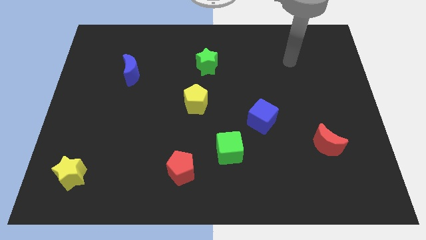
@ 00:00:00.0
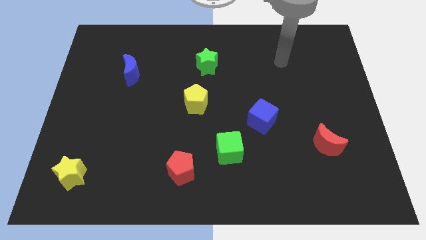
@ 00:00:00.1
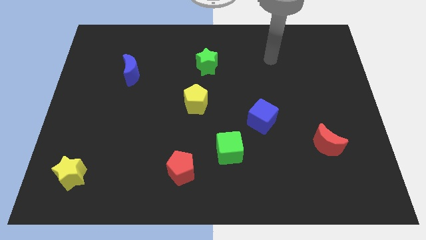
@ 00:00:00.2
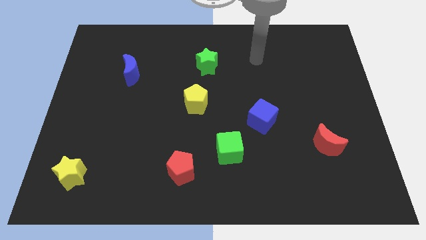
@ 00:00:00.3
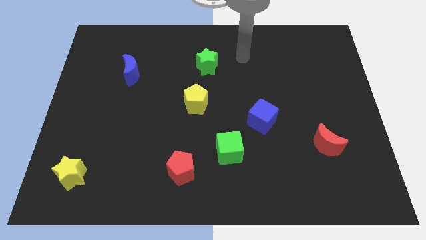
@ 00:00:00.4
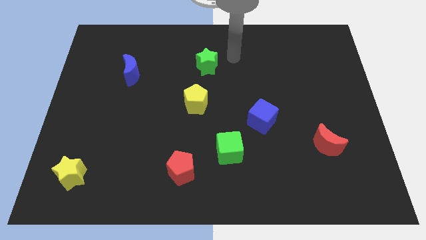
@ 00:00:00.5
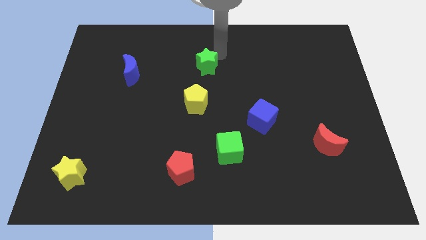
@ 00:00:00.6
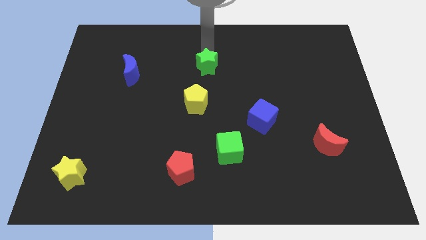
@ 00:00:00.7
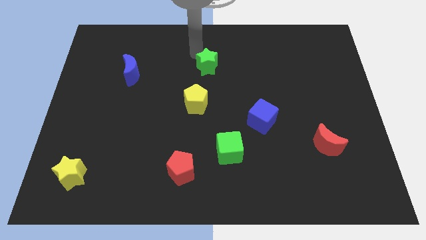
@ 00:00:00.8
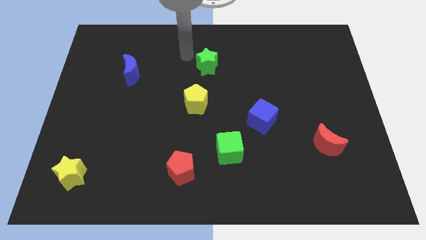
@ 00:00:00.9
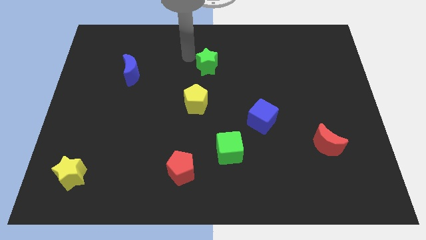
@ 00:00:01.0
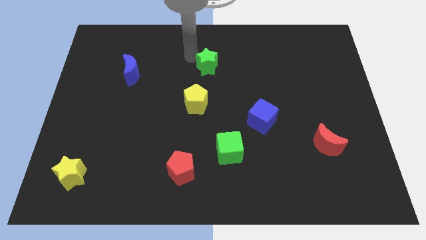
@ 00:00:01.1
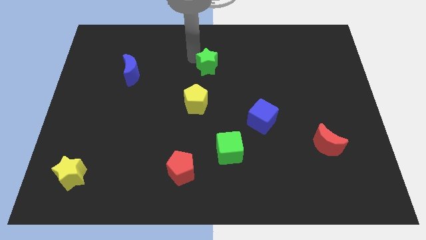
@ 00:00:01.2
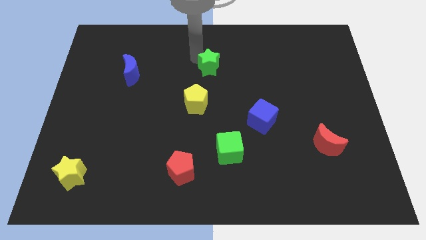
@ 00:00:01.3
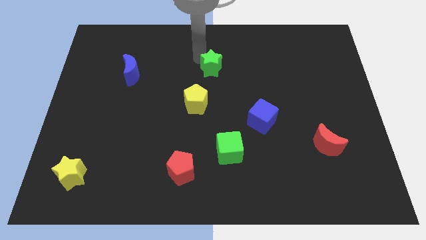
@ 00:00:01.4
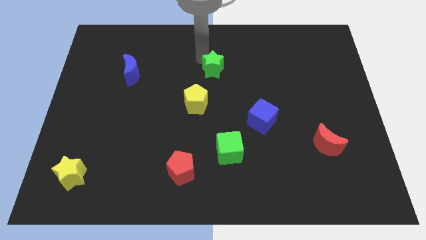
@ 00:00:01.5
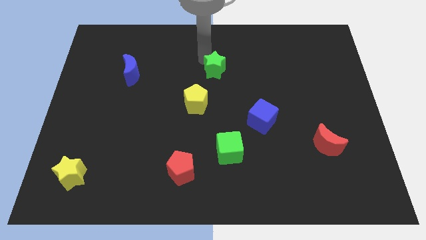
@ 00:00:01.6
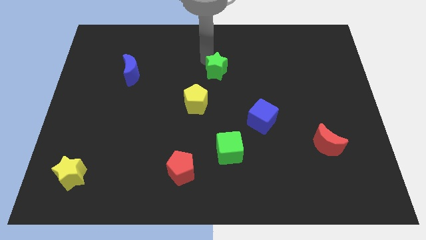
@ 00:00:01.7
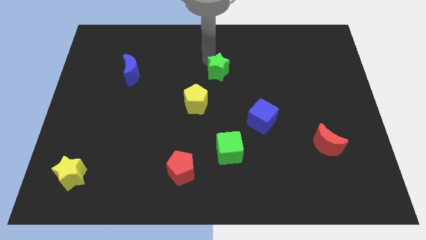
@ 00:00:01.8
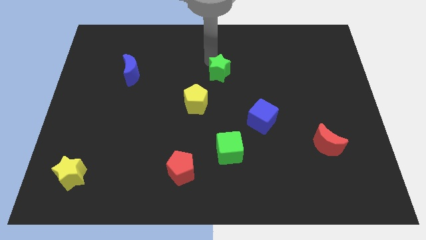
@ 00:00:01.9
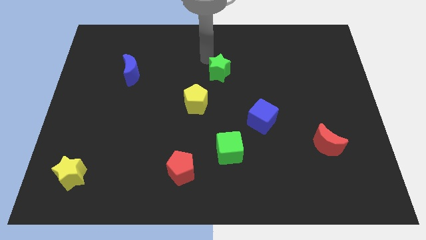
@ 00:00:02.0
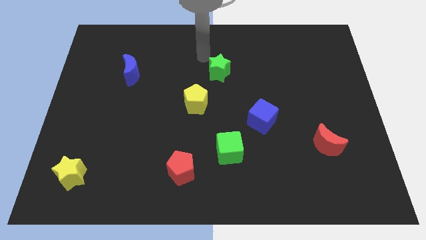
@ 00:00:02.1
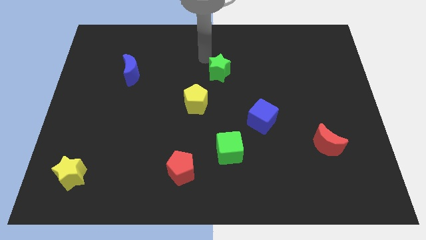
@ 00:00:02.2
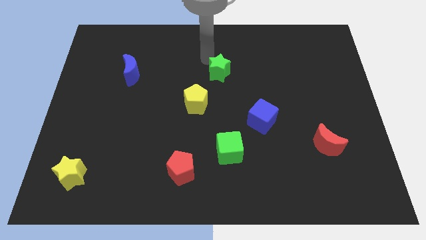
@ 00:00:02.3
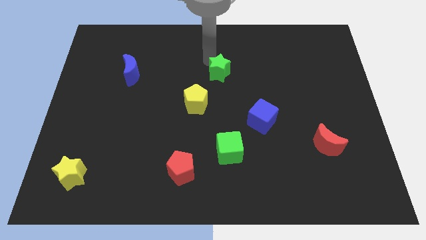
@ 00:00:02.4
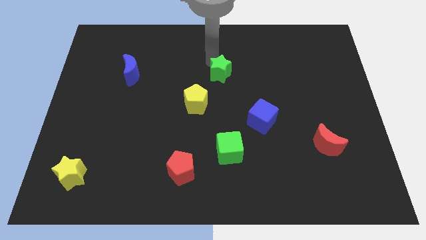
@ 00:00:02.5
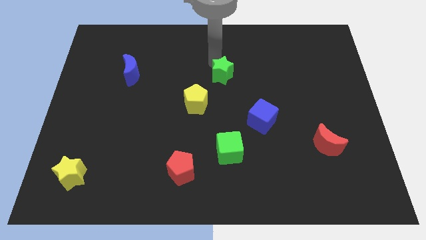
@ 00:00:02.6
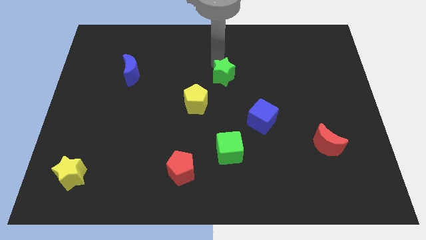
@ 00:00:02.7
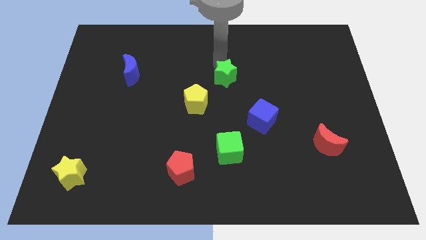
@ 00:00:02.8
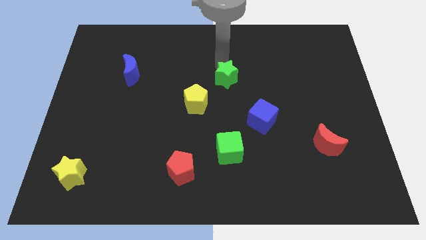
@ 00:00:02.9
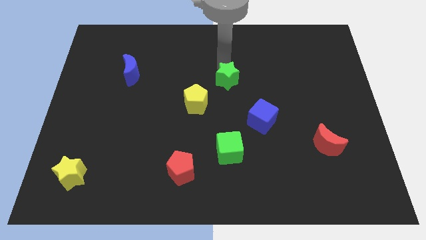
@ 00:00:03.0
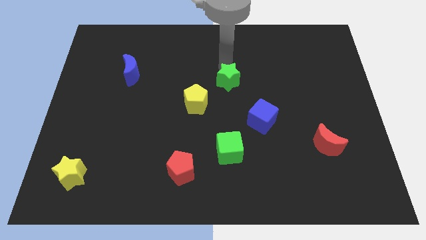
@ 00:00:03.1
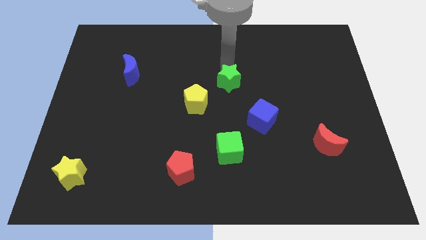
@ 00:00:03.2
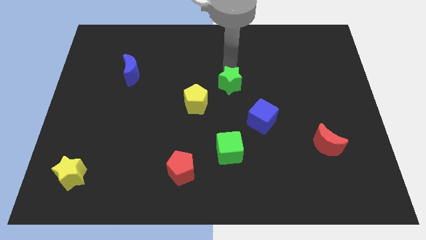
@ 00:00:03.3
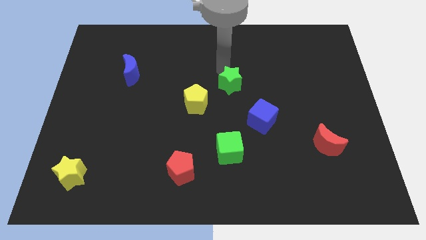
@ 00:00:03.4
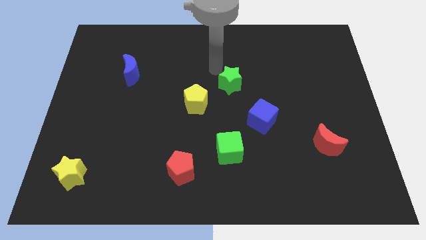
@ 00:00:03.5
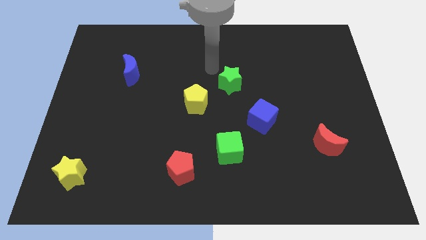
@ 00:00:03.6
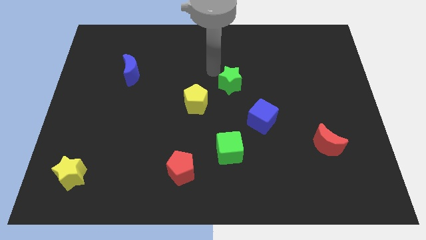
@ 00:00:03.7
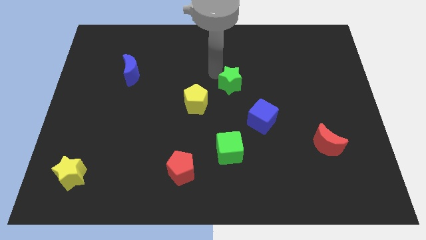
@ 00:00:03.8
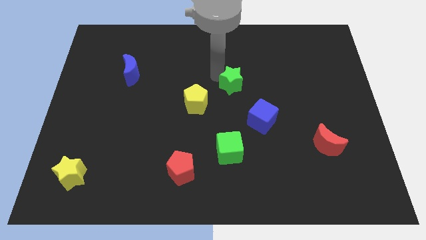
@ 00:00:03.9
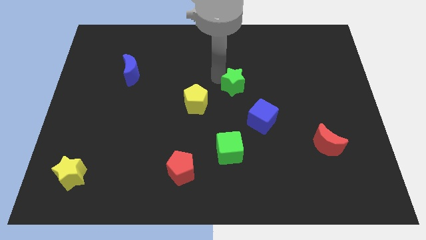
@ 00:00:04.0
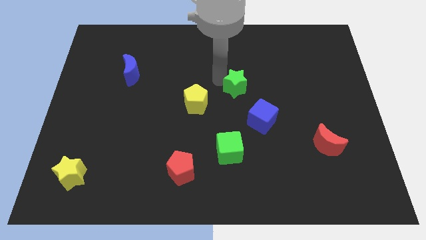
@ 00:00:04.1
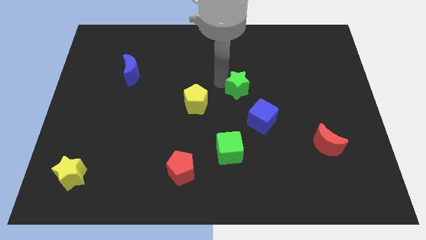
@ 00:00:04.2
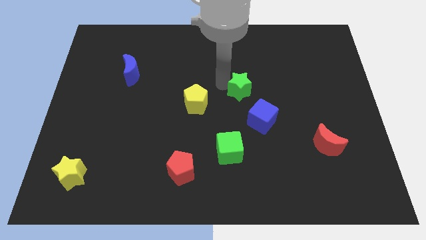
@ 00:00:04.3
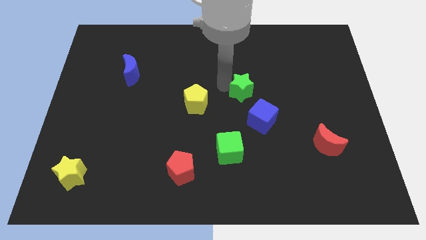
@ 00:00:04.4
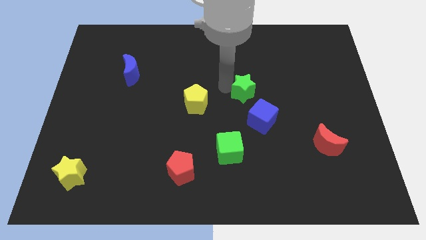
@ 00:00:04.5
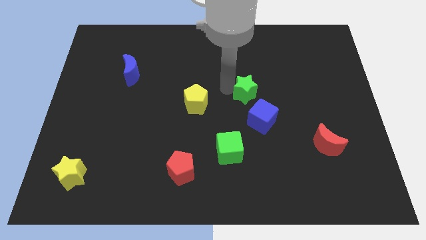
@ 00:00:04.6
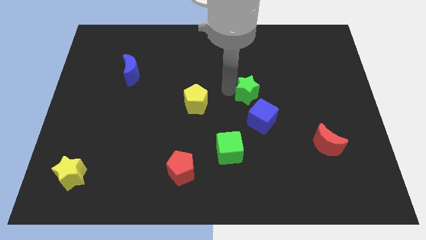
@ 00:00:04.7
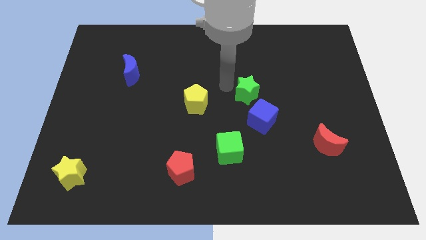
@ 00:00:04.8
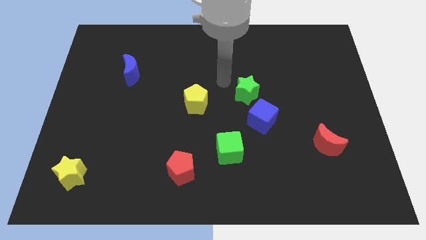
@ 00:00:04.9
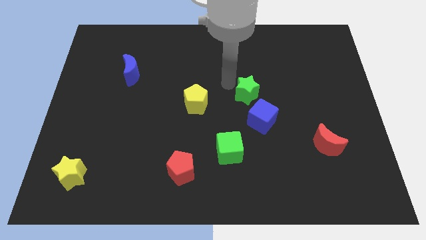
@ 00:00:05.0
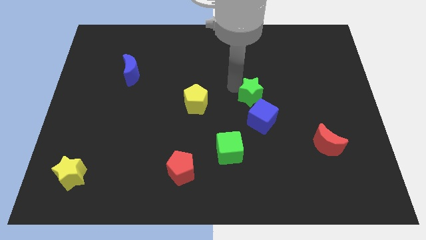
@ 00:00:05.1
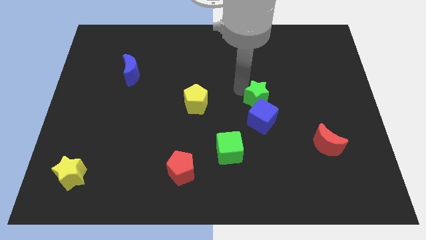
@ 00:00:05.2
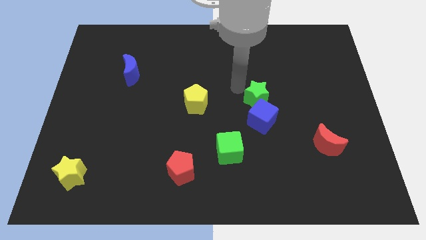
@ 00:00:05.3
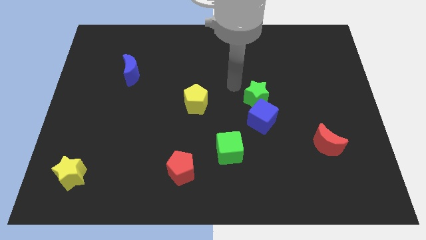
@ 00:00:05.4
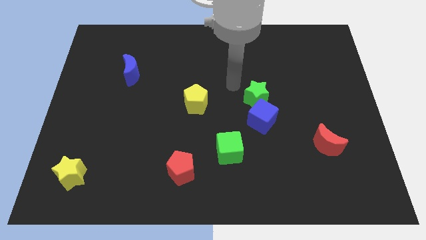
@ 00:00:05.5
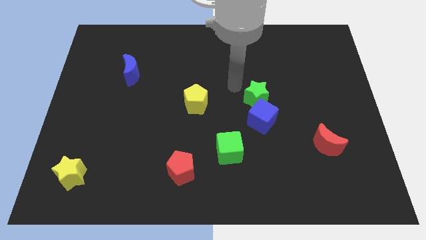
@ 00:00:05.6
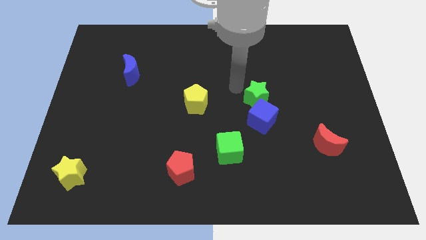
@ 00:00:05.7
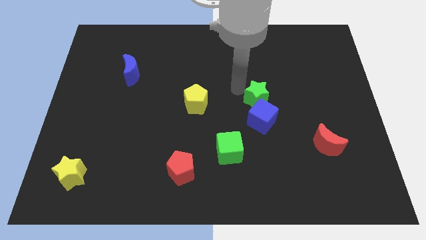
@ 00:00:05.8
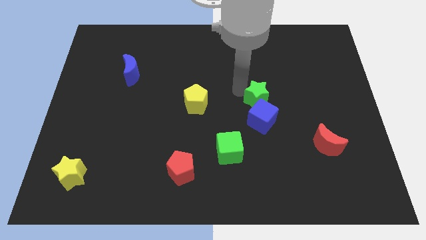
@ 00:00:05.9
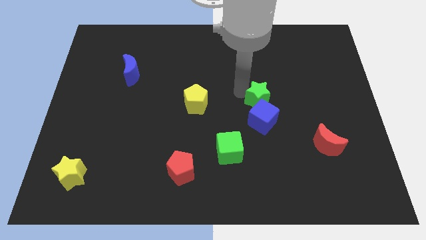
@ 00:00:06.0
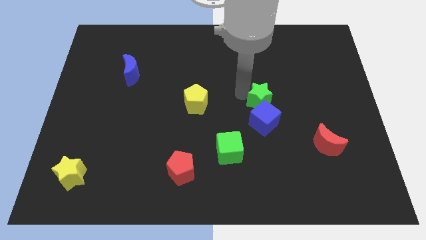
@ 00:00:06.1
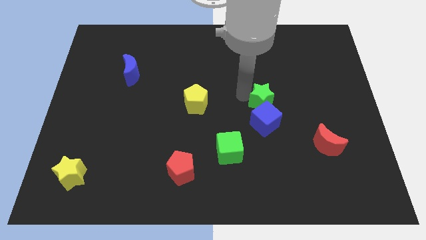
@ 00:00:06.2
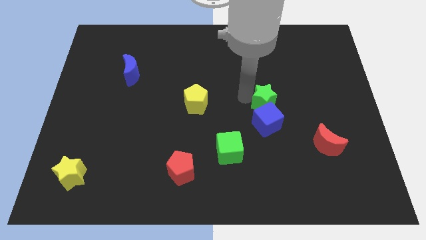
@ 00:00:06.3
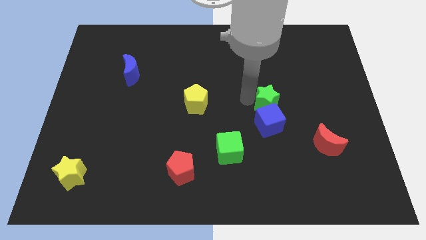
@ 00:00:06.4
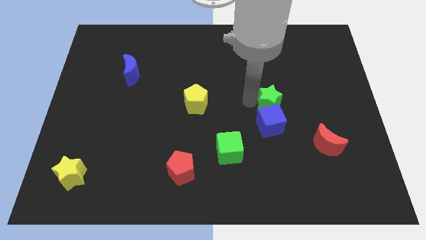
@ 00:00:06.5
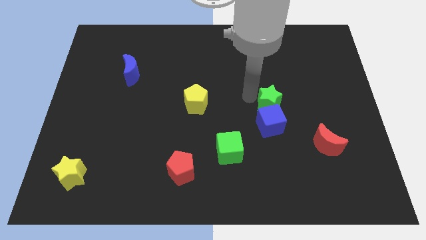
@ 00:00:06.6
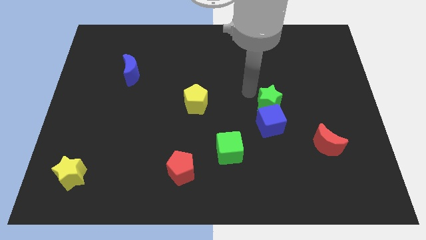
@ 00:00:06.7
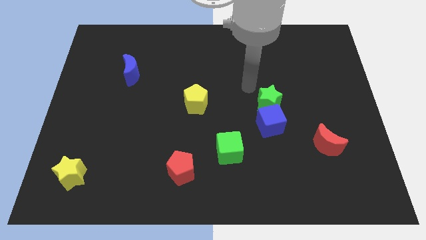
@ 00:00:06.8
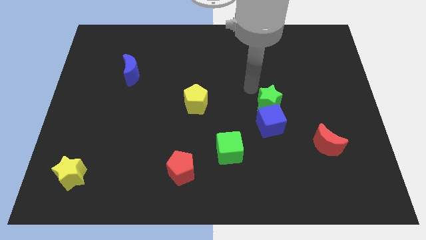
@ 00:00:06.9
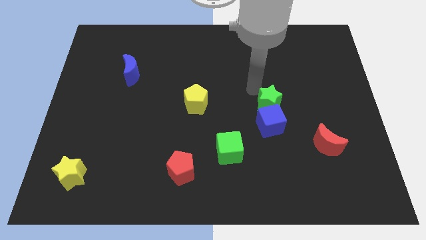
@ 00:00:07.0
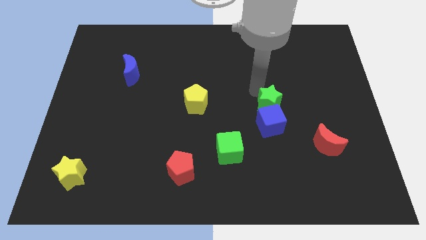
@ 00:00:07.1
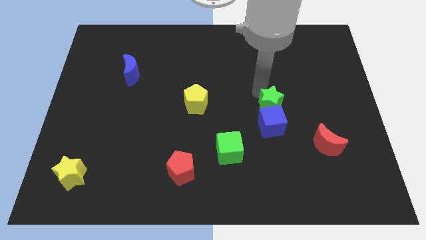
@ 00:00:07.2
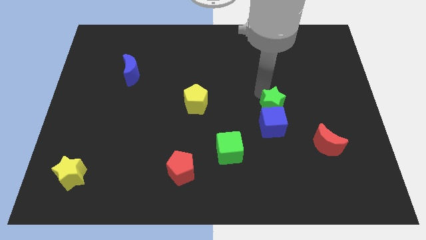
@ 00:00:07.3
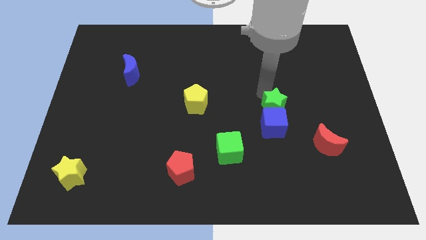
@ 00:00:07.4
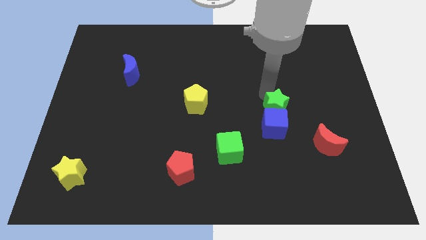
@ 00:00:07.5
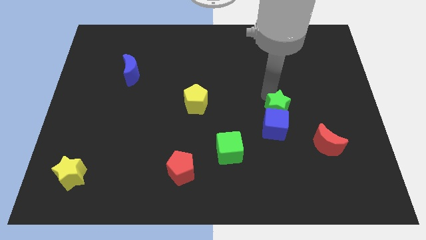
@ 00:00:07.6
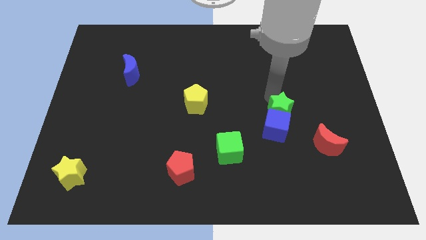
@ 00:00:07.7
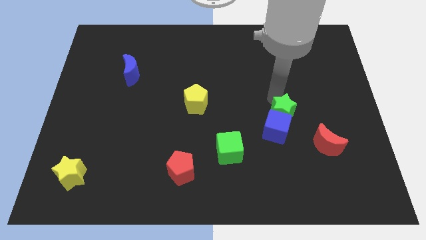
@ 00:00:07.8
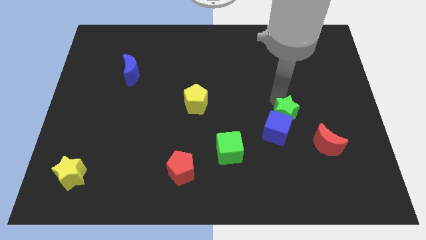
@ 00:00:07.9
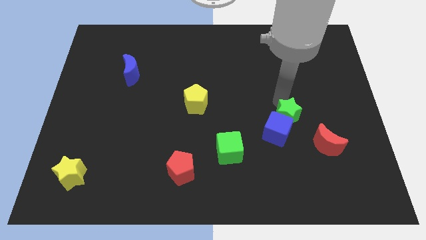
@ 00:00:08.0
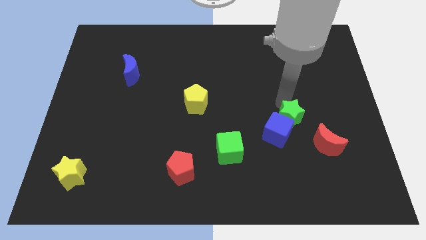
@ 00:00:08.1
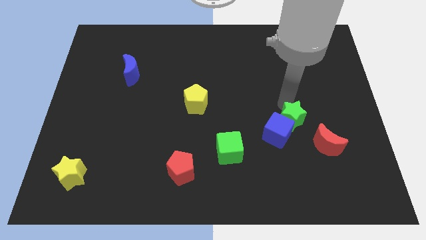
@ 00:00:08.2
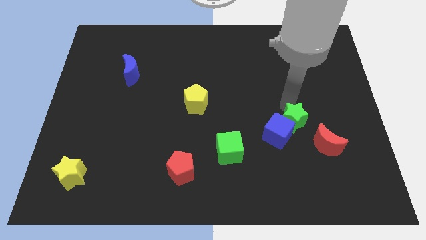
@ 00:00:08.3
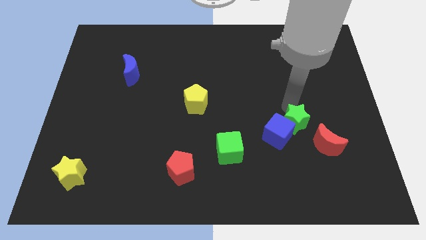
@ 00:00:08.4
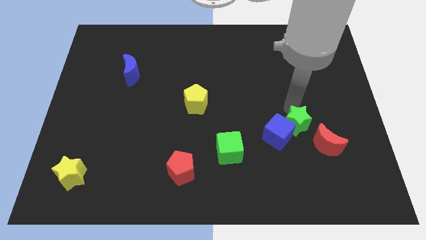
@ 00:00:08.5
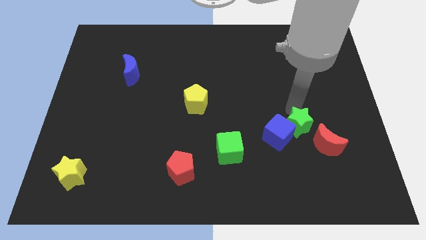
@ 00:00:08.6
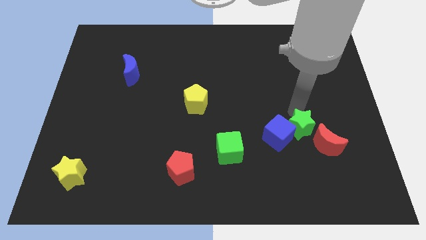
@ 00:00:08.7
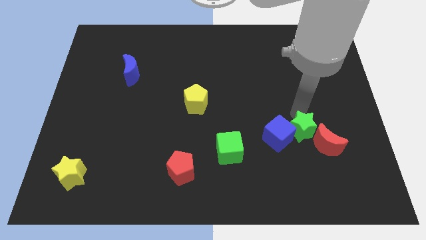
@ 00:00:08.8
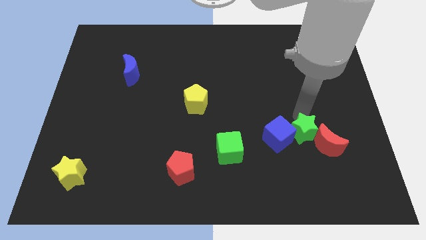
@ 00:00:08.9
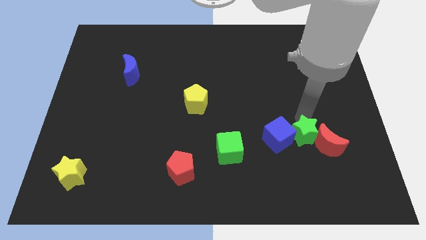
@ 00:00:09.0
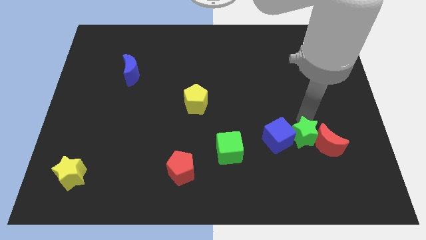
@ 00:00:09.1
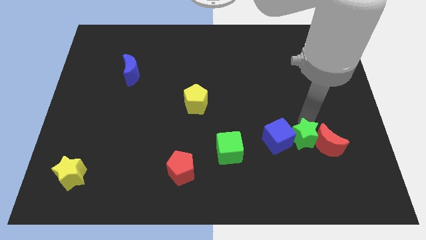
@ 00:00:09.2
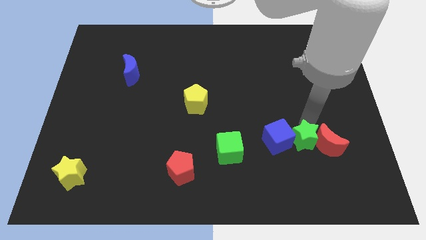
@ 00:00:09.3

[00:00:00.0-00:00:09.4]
put the green star to the bottom left of the red moon
